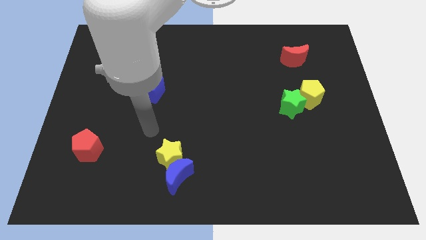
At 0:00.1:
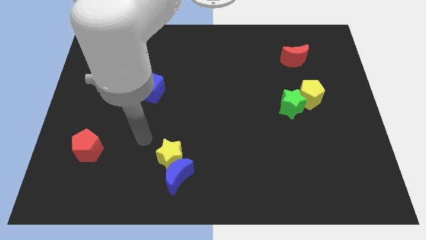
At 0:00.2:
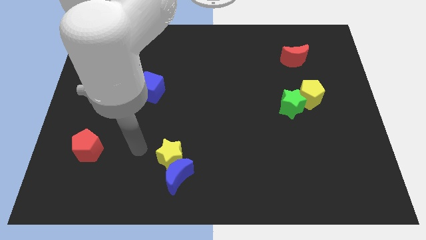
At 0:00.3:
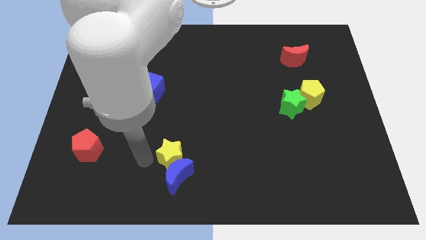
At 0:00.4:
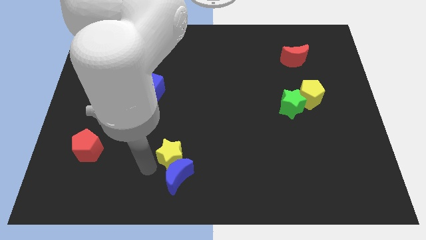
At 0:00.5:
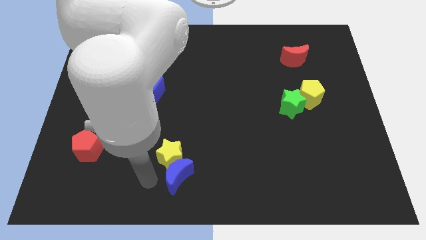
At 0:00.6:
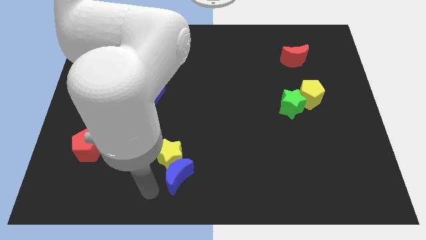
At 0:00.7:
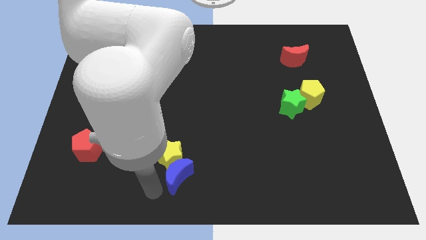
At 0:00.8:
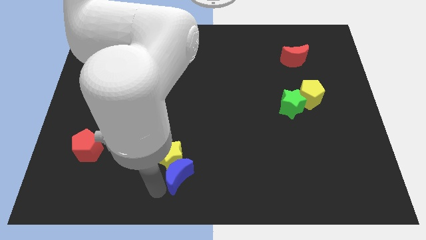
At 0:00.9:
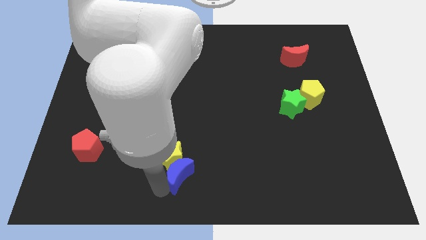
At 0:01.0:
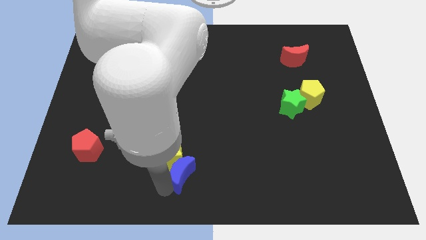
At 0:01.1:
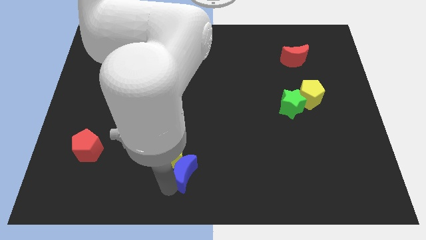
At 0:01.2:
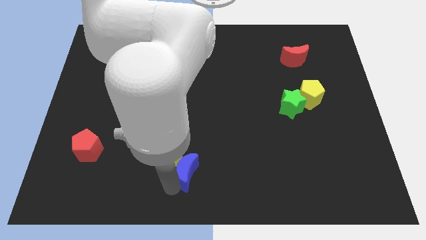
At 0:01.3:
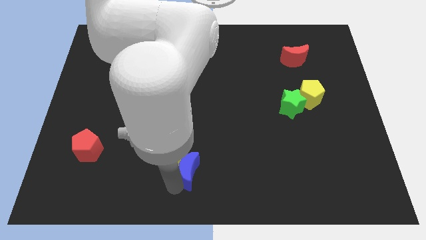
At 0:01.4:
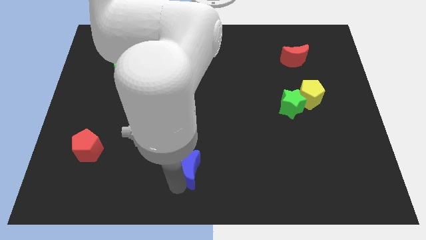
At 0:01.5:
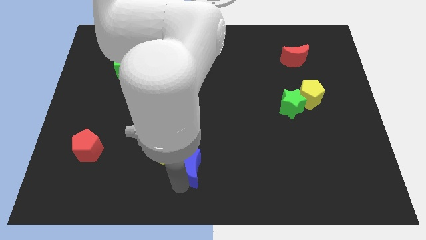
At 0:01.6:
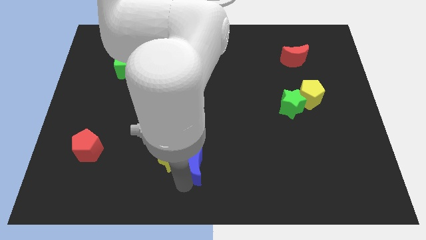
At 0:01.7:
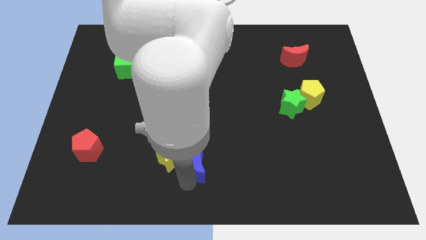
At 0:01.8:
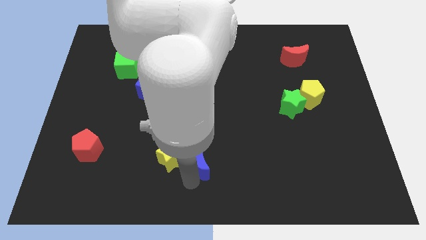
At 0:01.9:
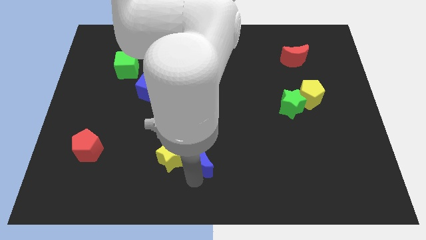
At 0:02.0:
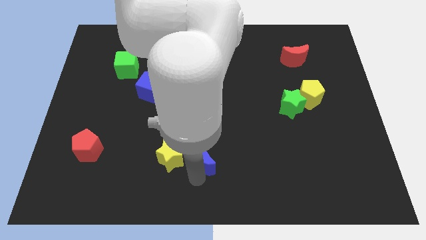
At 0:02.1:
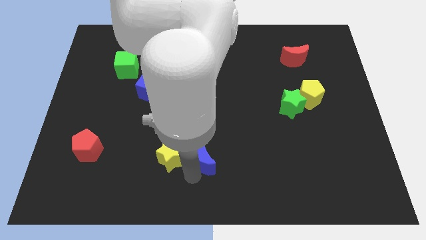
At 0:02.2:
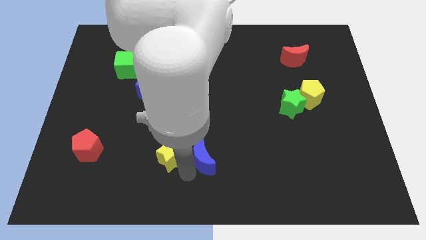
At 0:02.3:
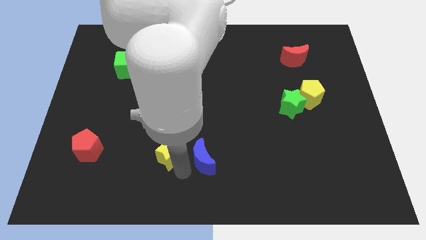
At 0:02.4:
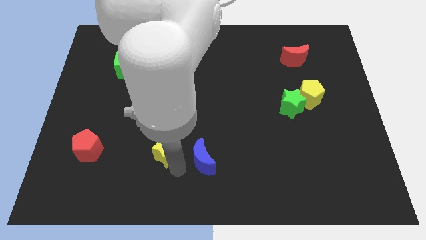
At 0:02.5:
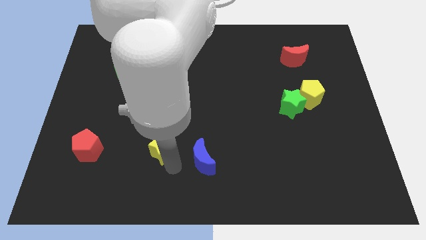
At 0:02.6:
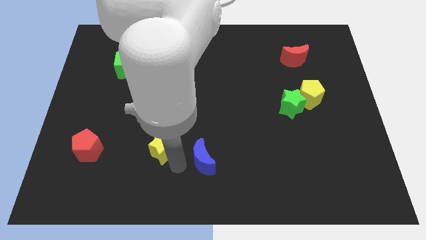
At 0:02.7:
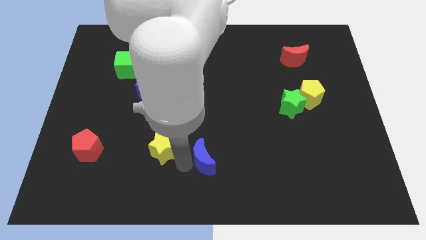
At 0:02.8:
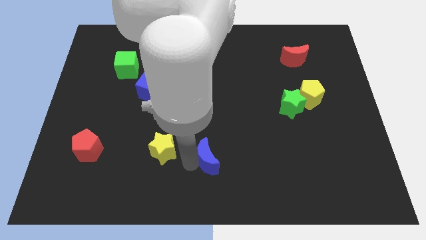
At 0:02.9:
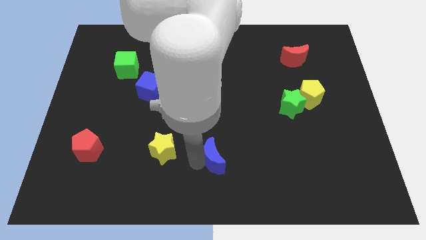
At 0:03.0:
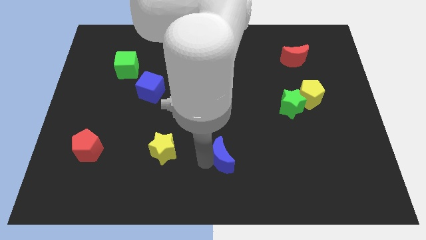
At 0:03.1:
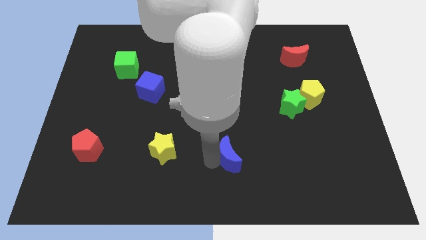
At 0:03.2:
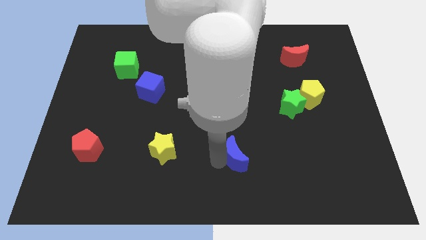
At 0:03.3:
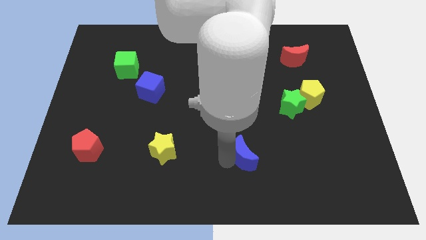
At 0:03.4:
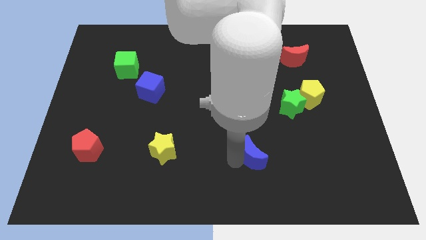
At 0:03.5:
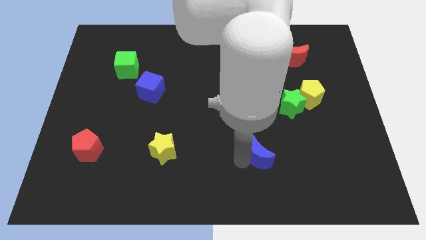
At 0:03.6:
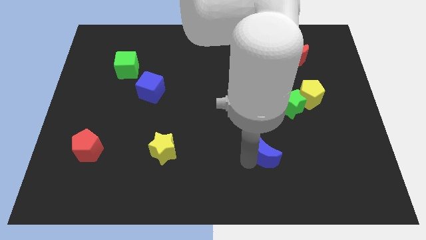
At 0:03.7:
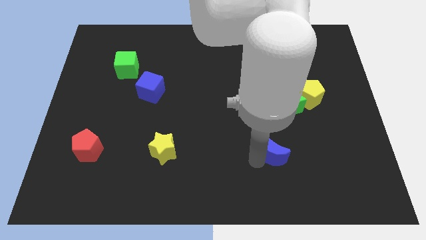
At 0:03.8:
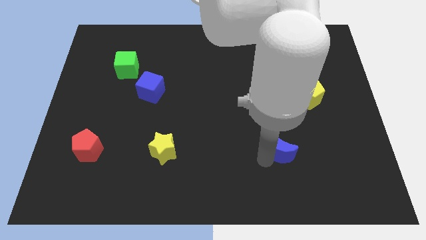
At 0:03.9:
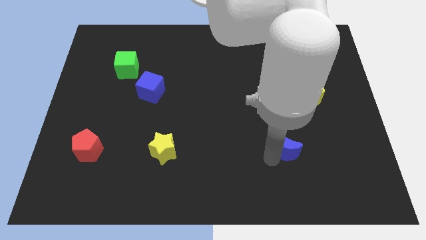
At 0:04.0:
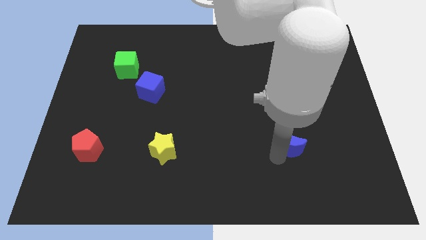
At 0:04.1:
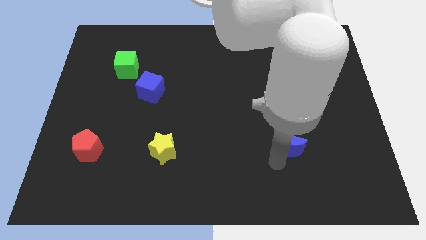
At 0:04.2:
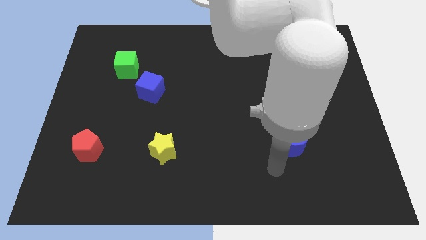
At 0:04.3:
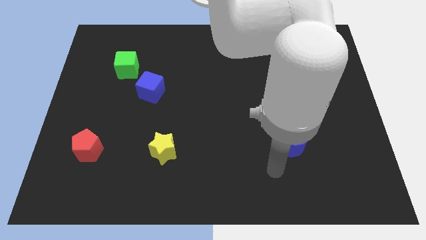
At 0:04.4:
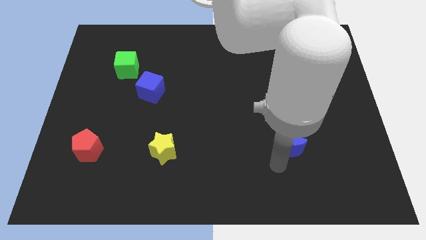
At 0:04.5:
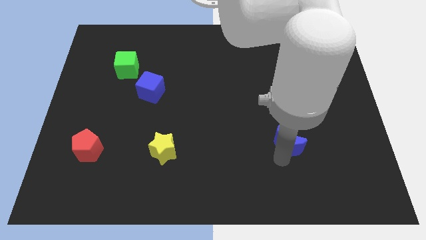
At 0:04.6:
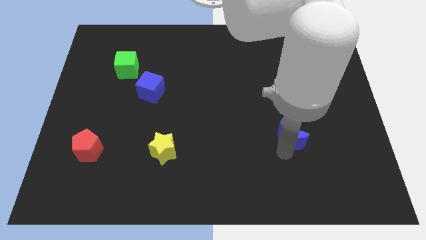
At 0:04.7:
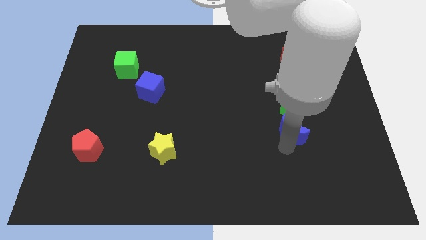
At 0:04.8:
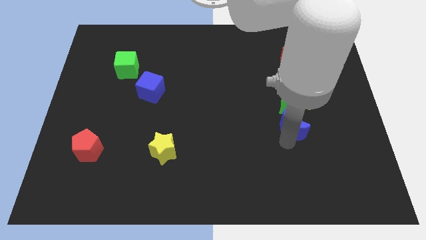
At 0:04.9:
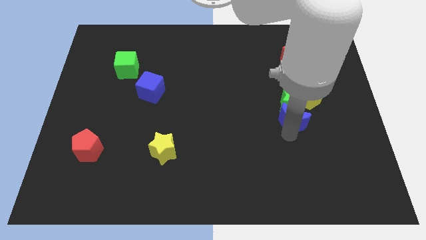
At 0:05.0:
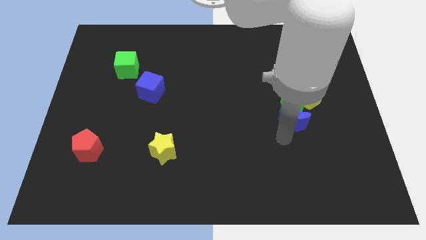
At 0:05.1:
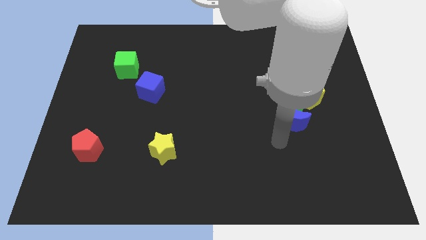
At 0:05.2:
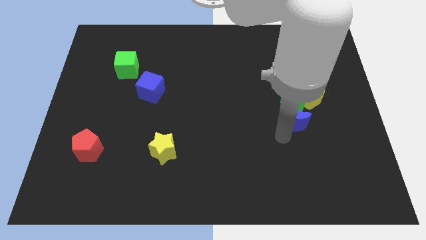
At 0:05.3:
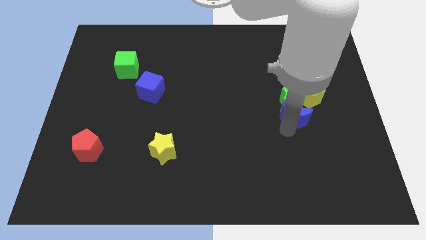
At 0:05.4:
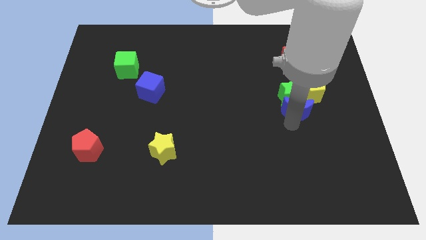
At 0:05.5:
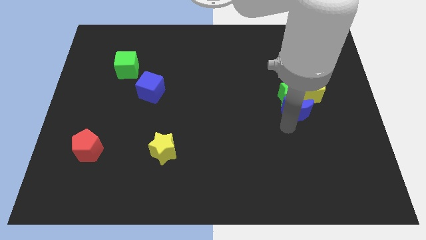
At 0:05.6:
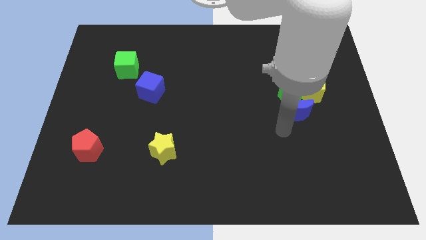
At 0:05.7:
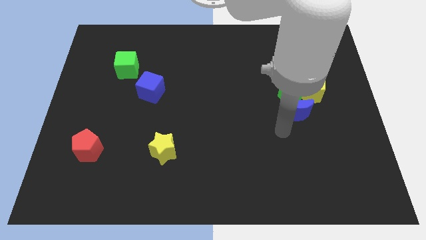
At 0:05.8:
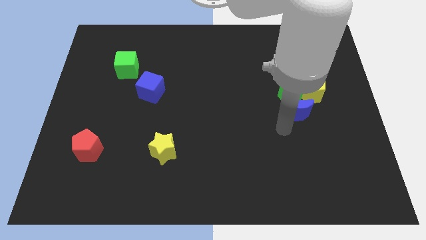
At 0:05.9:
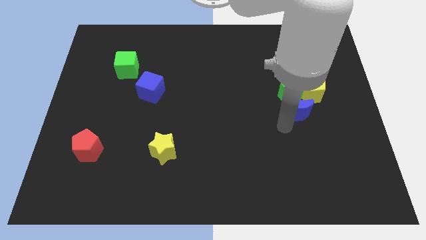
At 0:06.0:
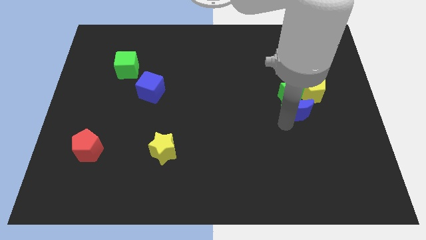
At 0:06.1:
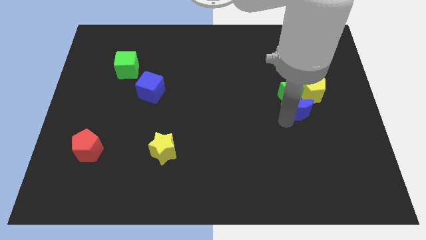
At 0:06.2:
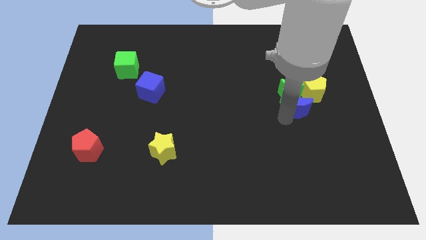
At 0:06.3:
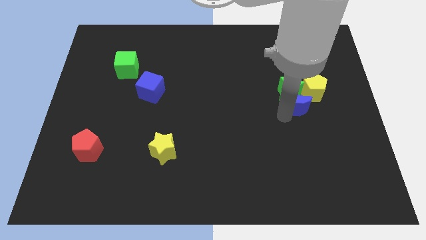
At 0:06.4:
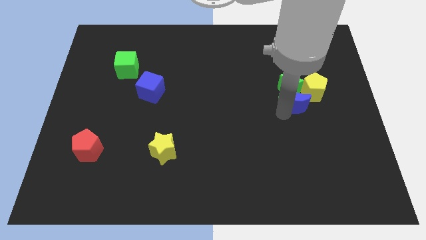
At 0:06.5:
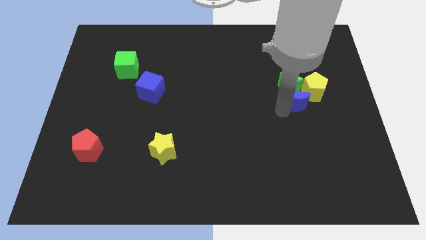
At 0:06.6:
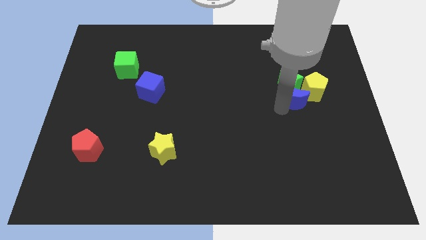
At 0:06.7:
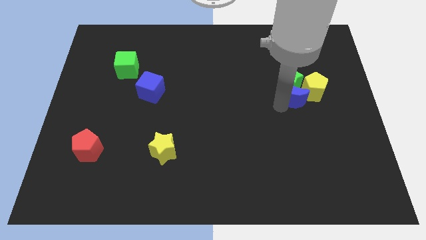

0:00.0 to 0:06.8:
put the blue moon towards the yellow pentagon

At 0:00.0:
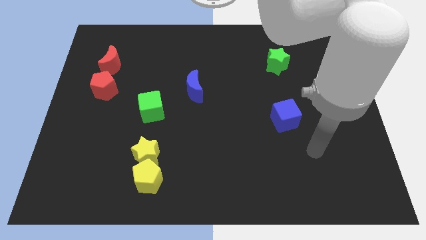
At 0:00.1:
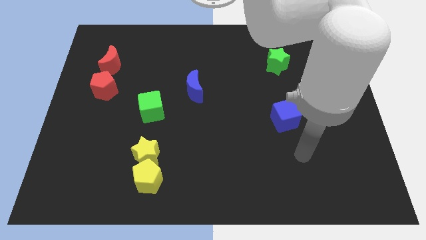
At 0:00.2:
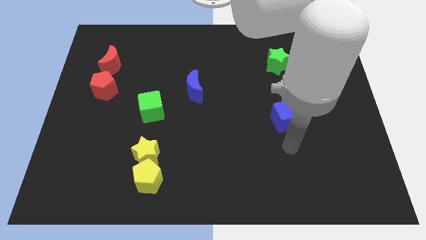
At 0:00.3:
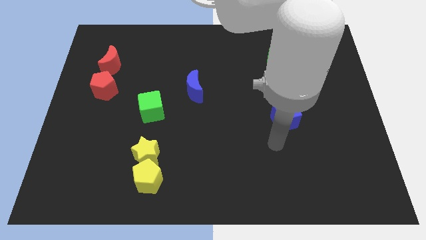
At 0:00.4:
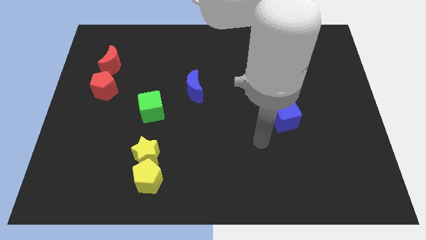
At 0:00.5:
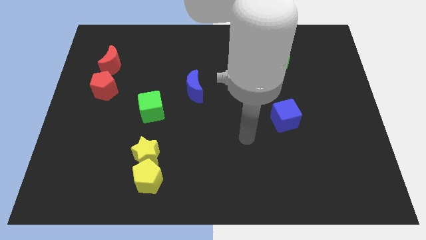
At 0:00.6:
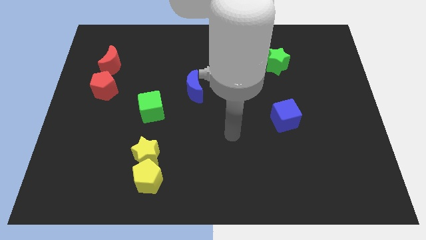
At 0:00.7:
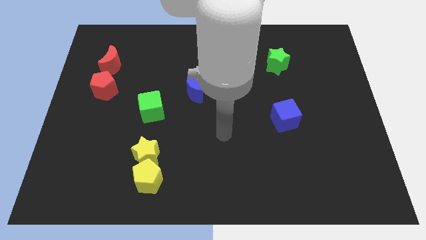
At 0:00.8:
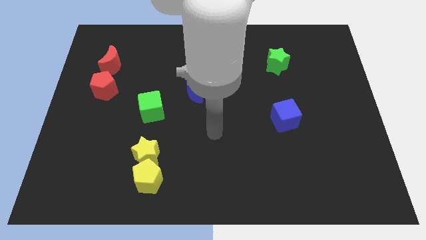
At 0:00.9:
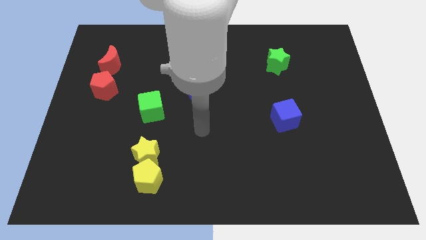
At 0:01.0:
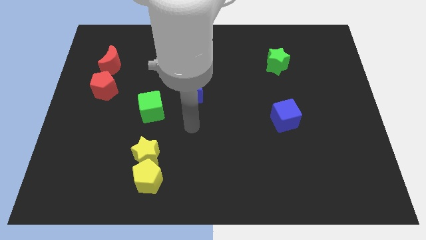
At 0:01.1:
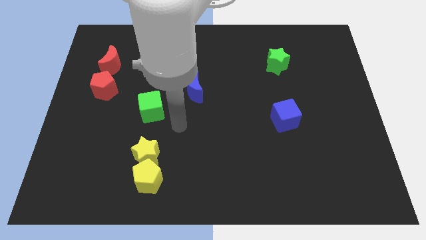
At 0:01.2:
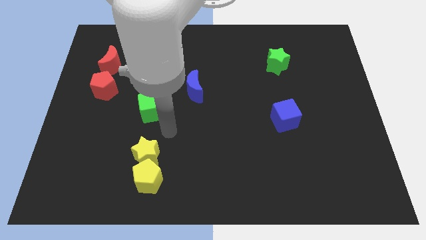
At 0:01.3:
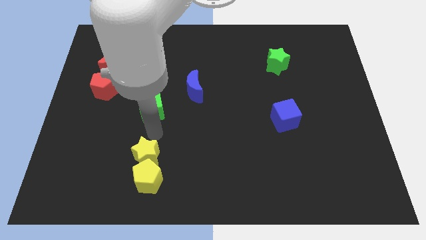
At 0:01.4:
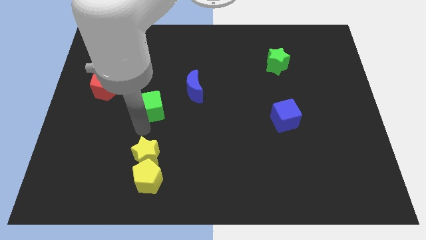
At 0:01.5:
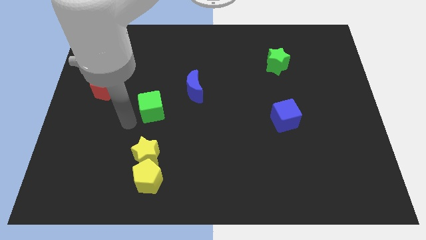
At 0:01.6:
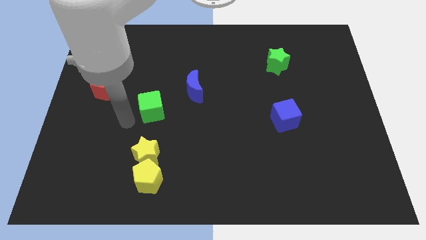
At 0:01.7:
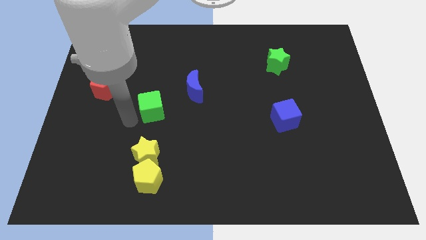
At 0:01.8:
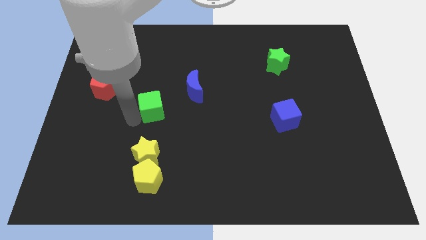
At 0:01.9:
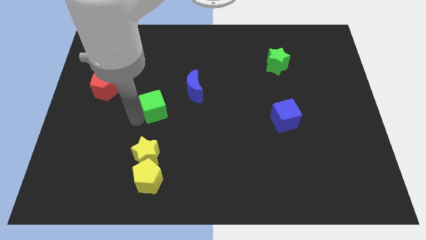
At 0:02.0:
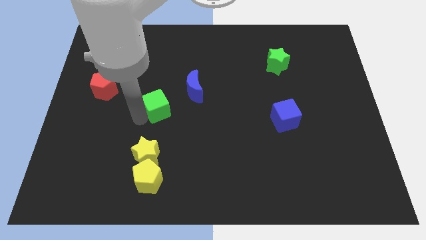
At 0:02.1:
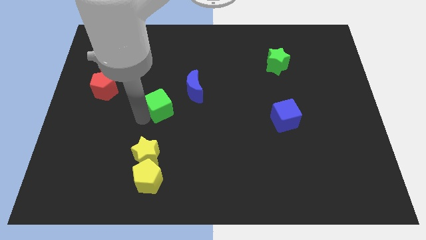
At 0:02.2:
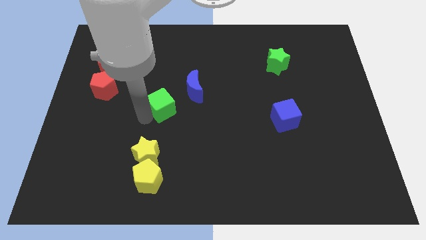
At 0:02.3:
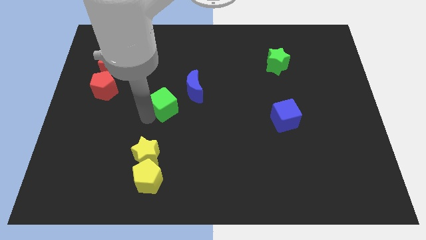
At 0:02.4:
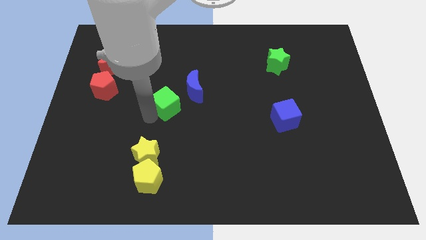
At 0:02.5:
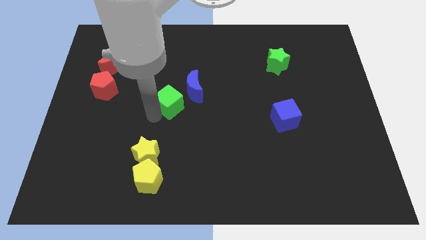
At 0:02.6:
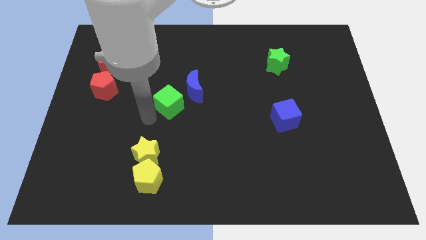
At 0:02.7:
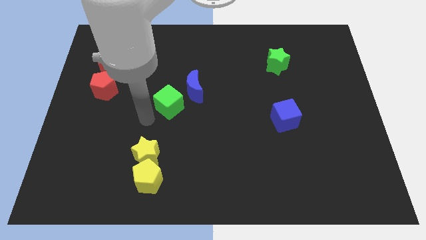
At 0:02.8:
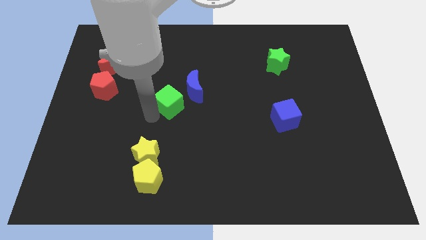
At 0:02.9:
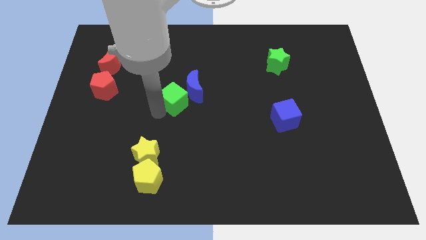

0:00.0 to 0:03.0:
put the green cube next to the blue moon
